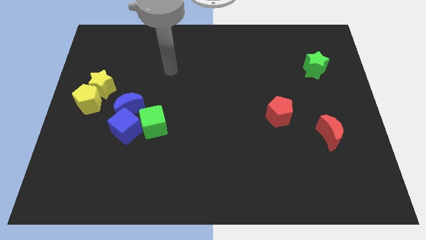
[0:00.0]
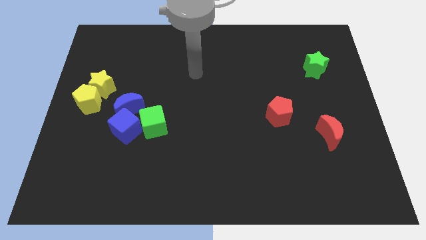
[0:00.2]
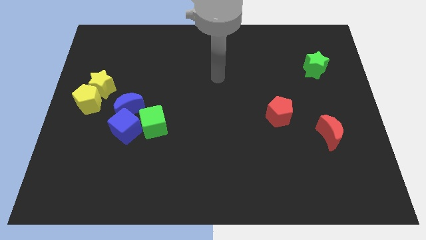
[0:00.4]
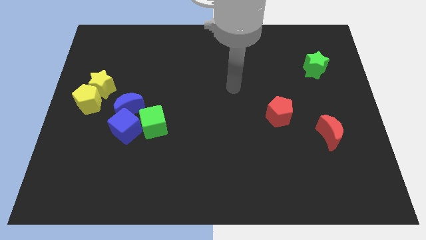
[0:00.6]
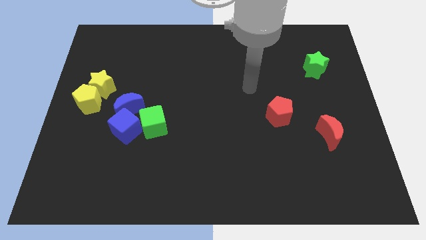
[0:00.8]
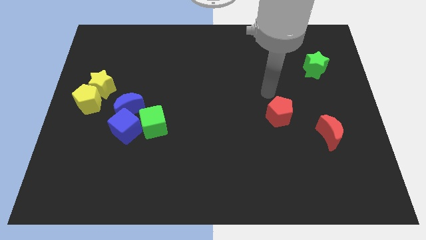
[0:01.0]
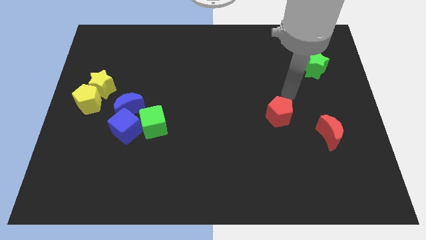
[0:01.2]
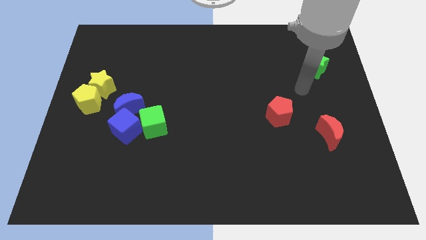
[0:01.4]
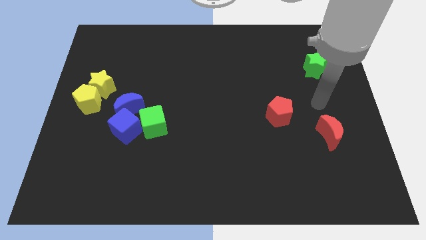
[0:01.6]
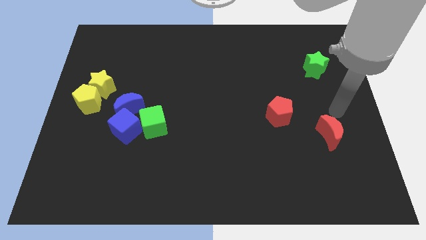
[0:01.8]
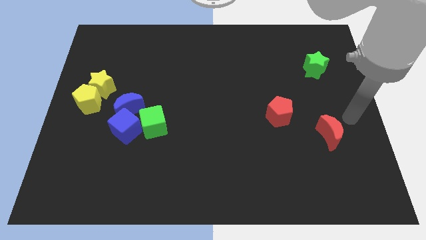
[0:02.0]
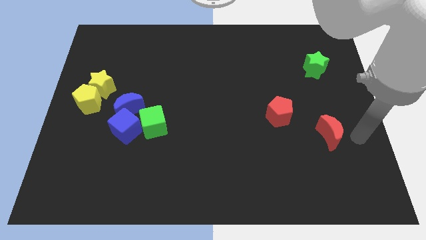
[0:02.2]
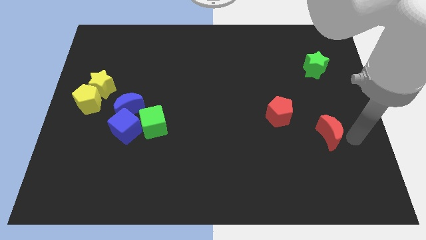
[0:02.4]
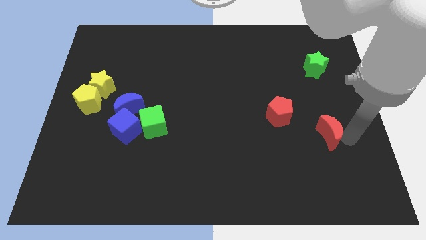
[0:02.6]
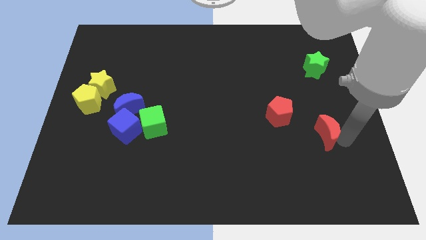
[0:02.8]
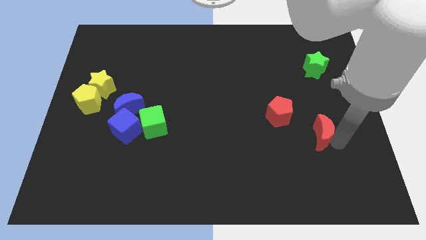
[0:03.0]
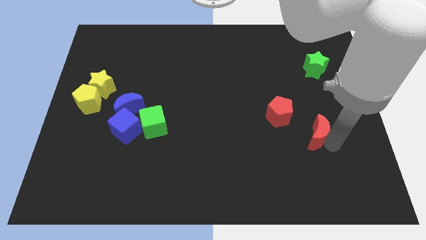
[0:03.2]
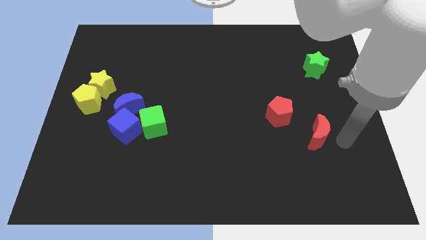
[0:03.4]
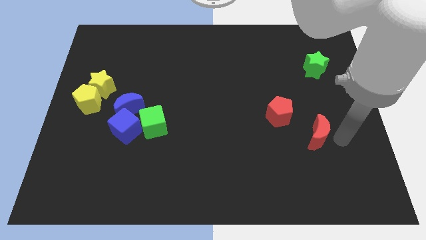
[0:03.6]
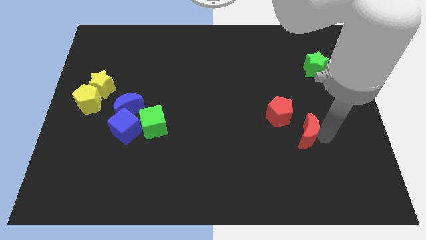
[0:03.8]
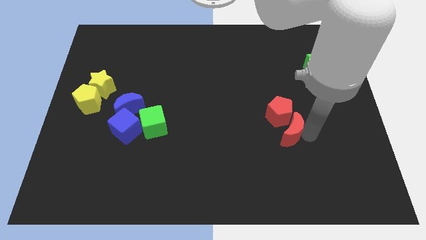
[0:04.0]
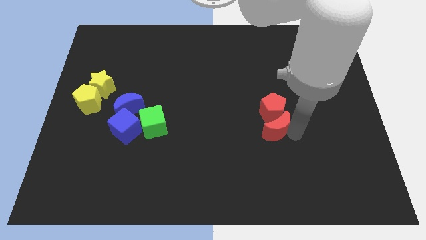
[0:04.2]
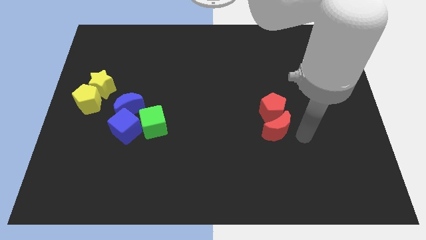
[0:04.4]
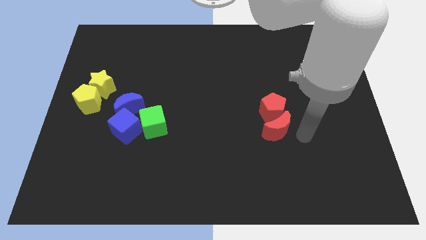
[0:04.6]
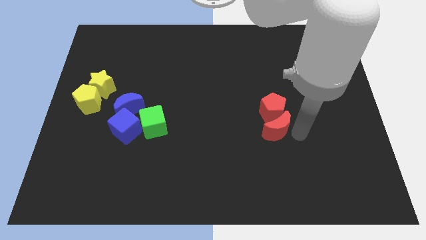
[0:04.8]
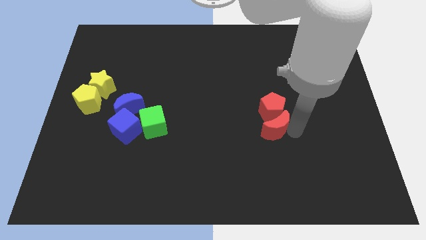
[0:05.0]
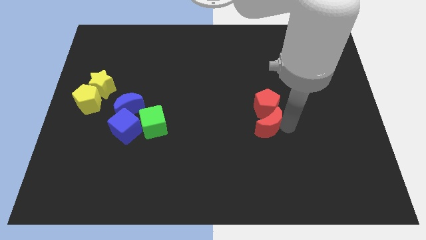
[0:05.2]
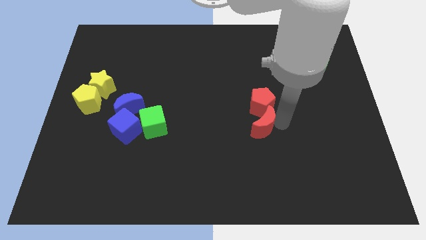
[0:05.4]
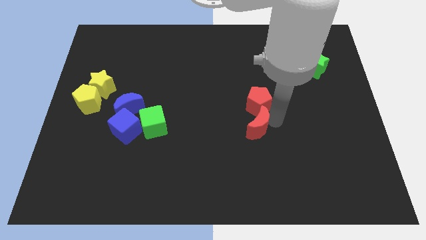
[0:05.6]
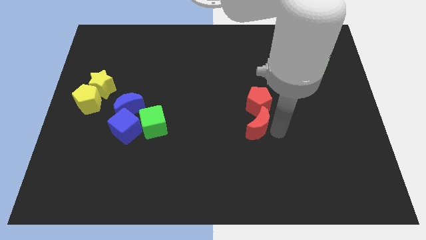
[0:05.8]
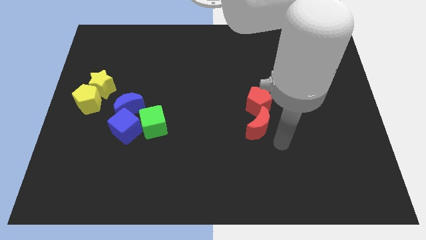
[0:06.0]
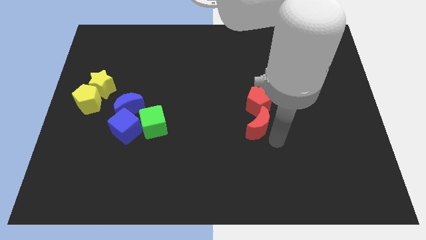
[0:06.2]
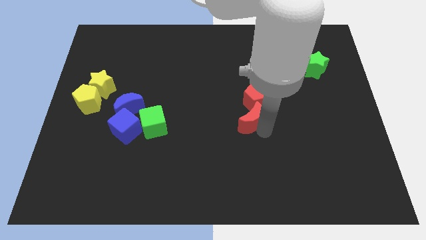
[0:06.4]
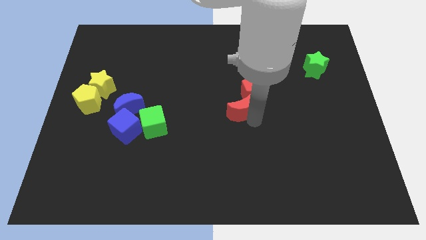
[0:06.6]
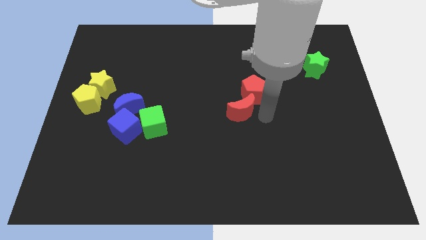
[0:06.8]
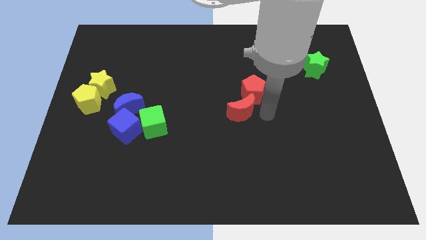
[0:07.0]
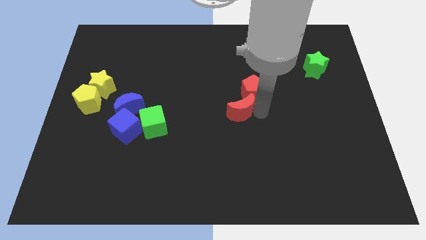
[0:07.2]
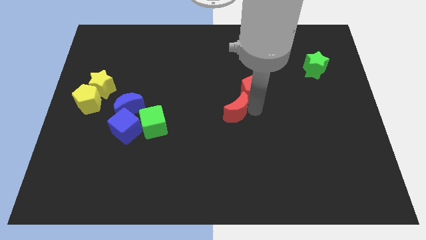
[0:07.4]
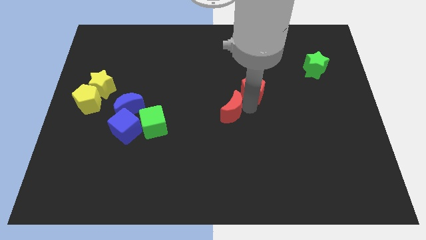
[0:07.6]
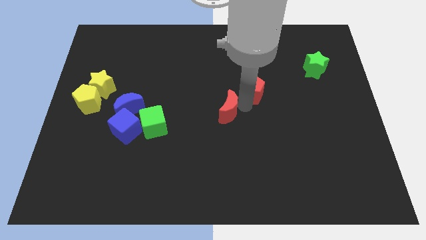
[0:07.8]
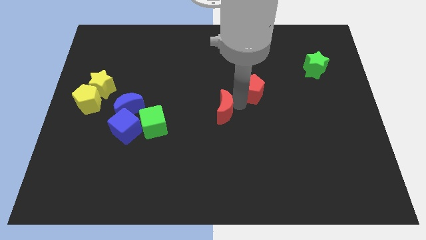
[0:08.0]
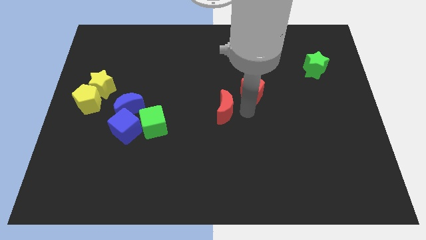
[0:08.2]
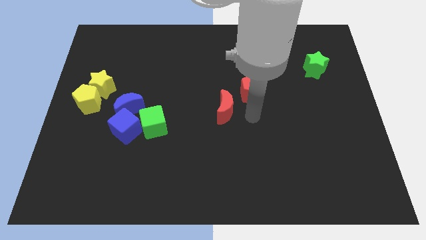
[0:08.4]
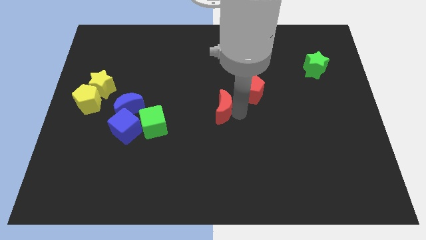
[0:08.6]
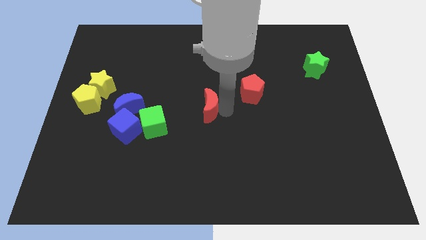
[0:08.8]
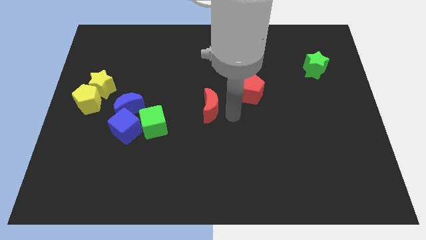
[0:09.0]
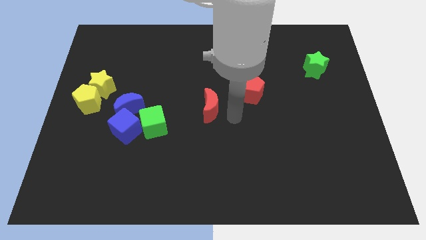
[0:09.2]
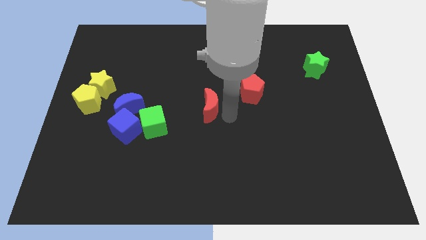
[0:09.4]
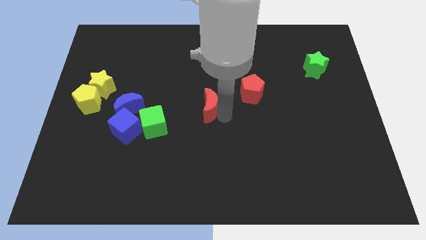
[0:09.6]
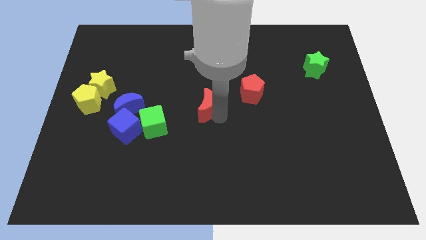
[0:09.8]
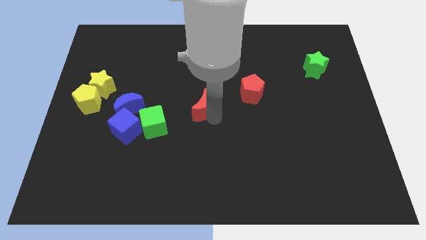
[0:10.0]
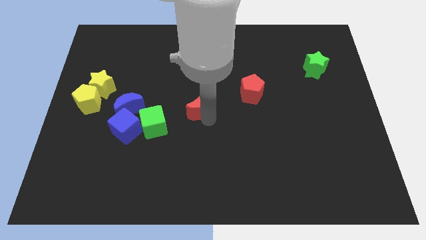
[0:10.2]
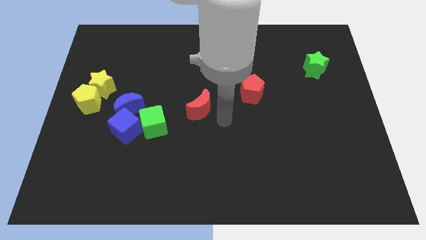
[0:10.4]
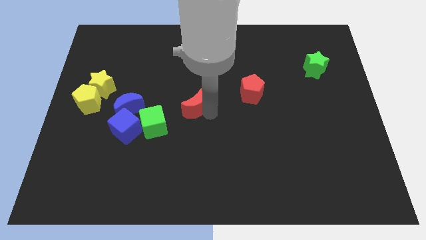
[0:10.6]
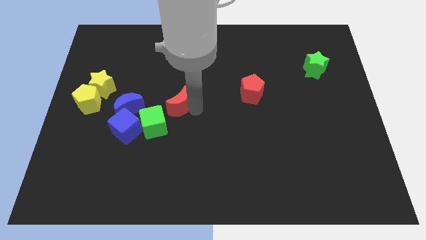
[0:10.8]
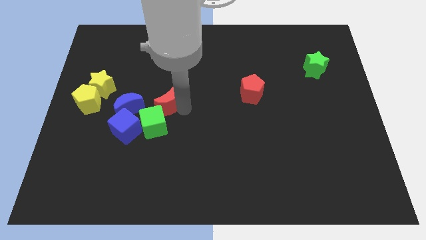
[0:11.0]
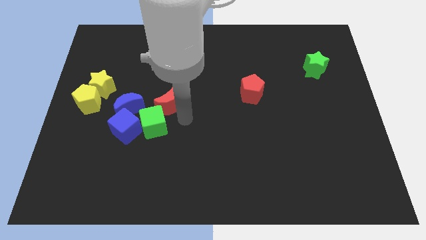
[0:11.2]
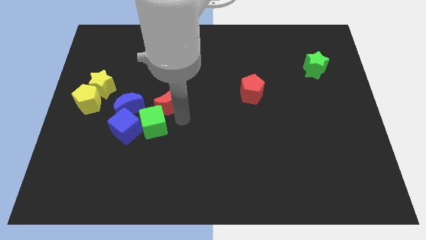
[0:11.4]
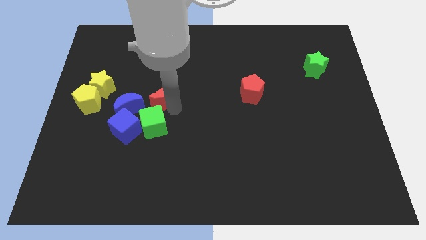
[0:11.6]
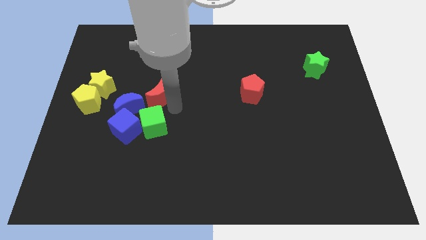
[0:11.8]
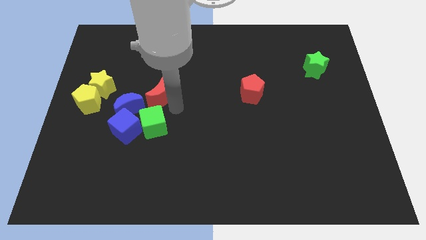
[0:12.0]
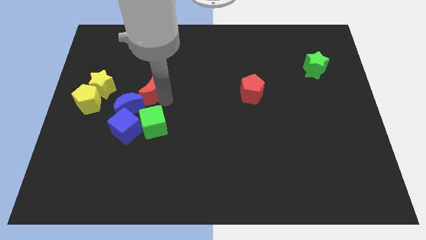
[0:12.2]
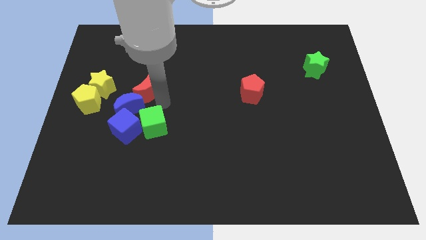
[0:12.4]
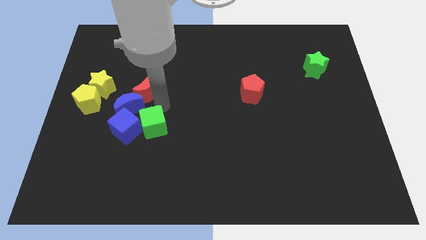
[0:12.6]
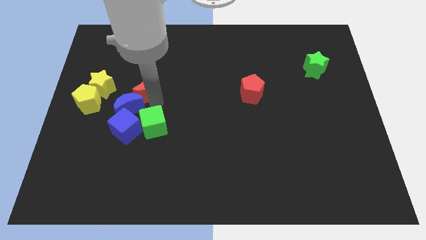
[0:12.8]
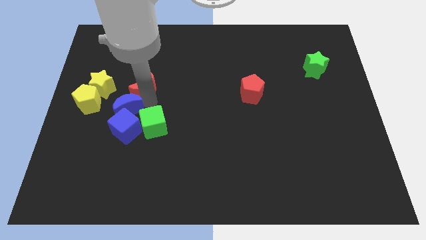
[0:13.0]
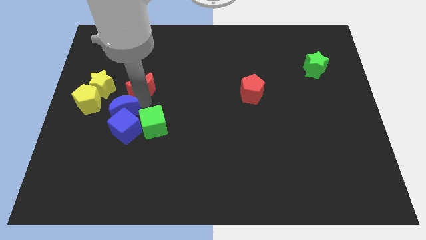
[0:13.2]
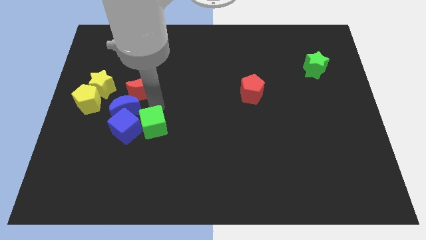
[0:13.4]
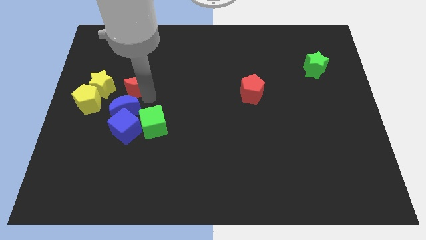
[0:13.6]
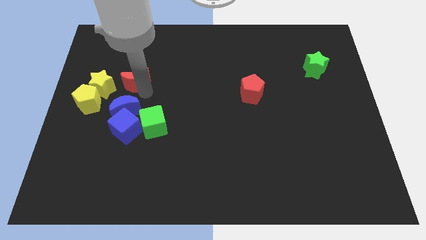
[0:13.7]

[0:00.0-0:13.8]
put the red moon to the top right of the yellow star
